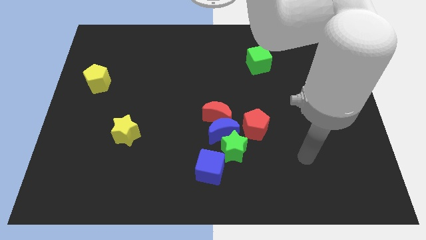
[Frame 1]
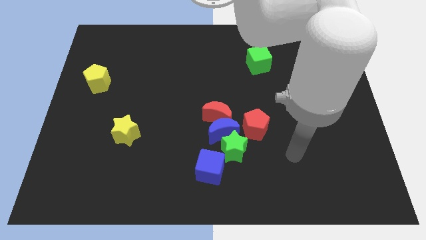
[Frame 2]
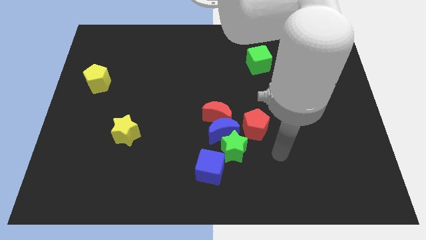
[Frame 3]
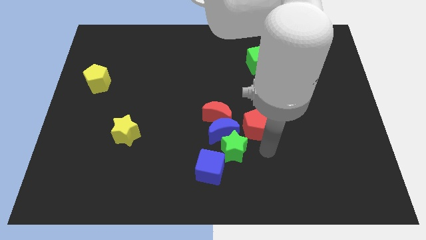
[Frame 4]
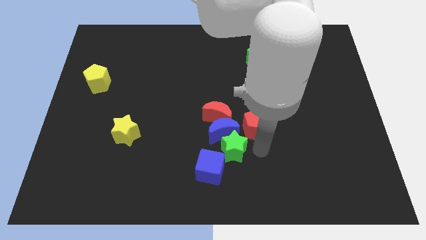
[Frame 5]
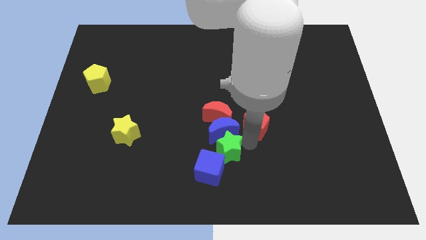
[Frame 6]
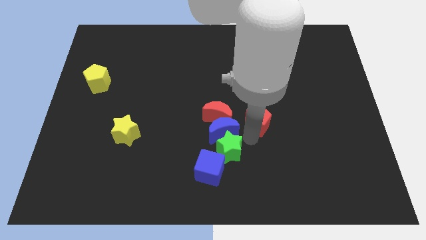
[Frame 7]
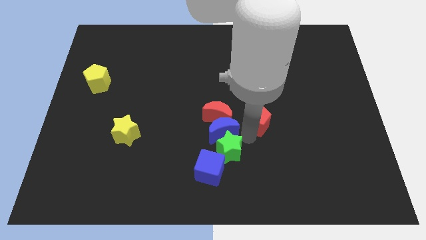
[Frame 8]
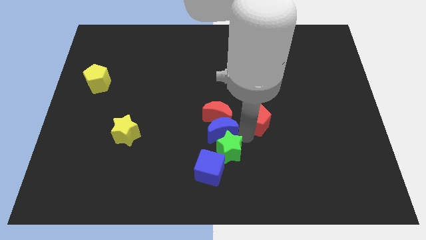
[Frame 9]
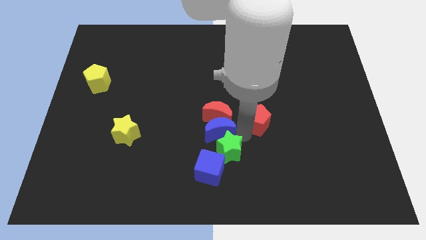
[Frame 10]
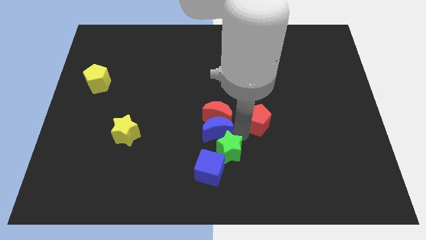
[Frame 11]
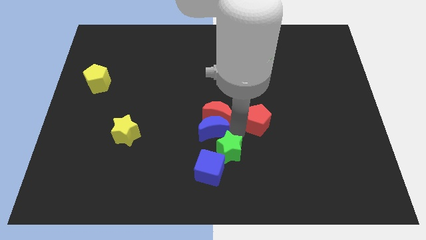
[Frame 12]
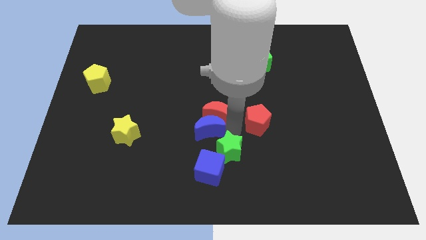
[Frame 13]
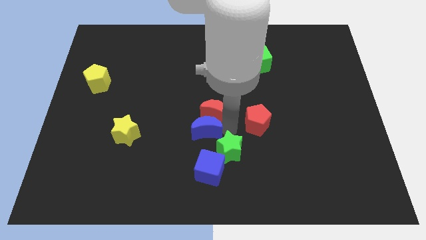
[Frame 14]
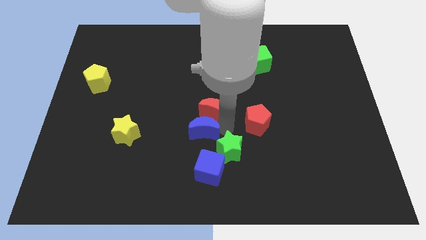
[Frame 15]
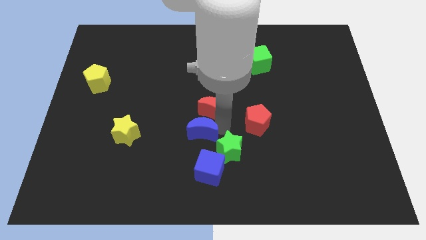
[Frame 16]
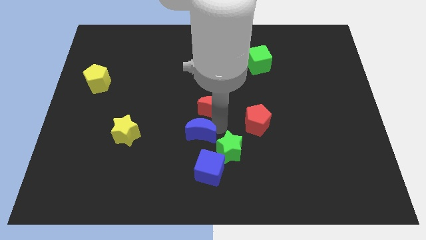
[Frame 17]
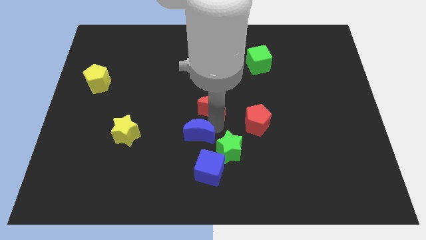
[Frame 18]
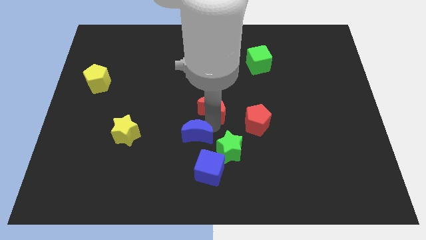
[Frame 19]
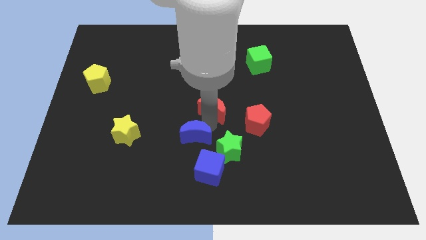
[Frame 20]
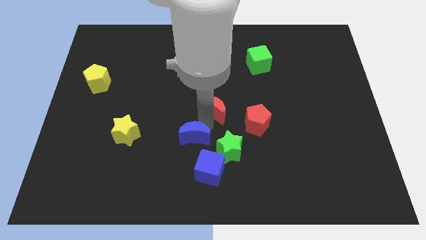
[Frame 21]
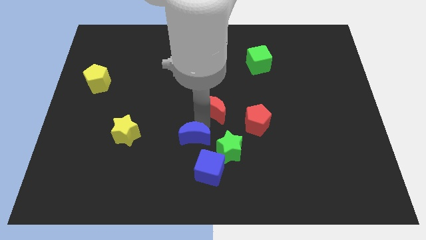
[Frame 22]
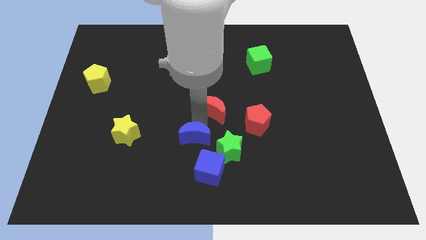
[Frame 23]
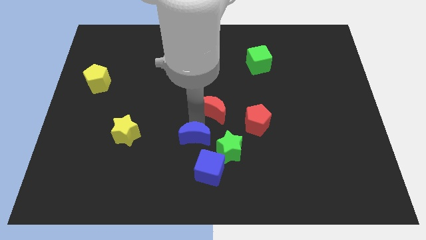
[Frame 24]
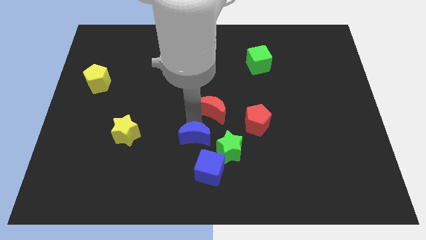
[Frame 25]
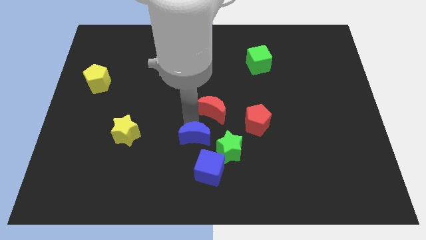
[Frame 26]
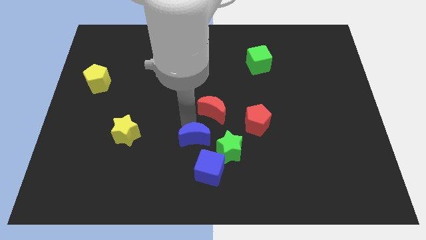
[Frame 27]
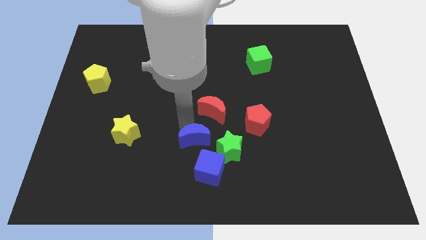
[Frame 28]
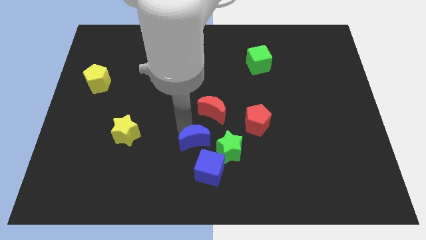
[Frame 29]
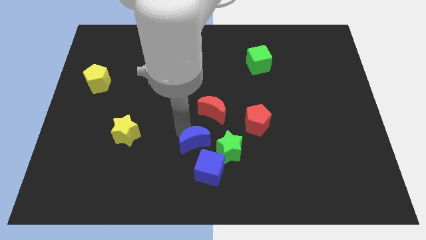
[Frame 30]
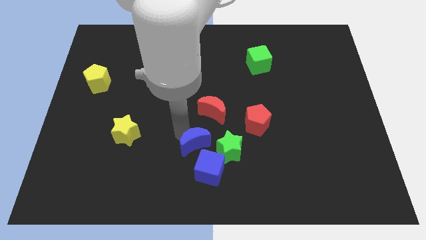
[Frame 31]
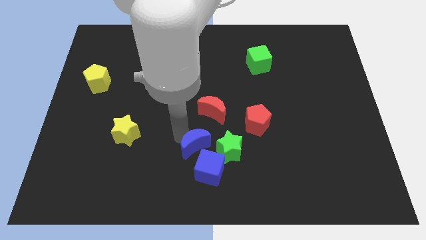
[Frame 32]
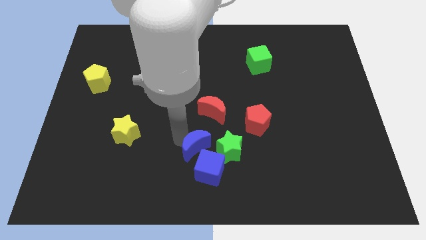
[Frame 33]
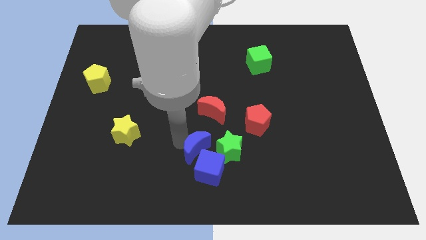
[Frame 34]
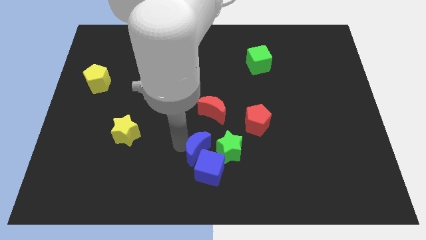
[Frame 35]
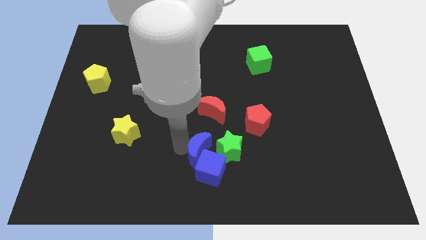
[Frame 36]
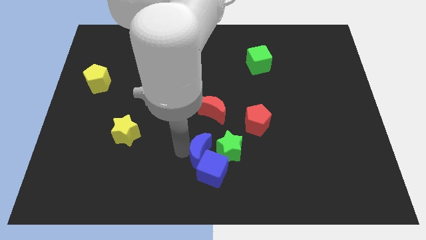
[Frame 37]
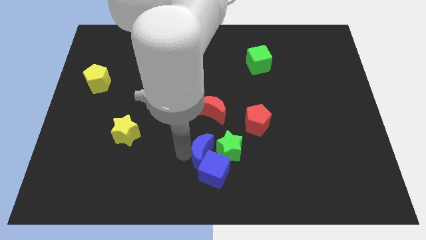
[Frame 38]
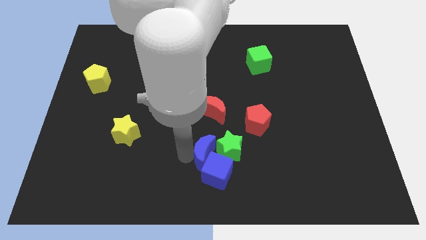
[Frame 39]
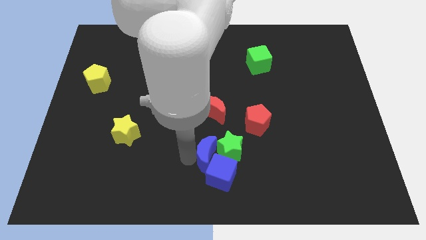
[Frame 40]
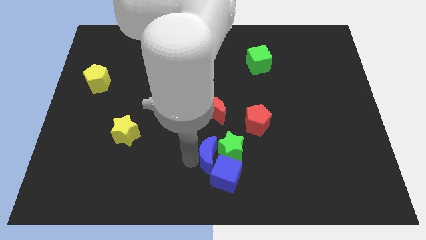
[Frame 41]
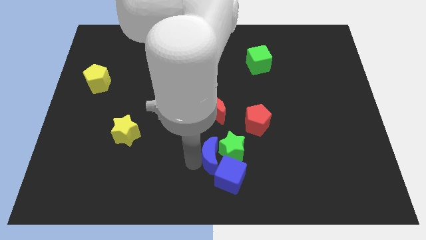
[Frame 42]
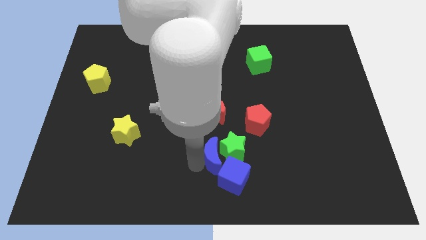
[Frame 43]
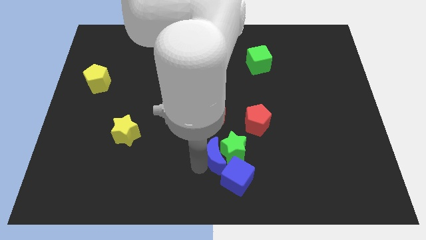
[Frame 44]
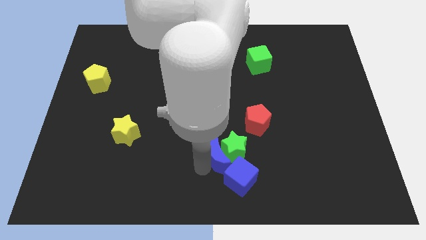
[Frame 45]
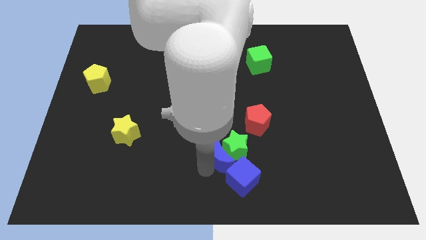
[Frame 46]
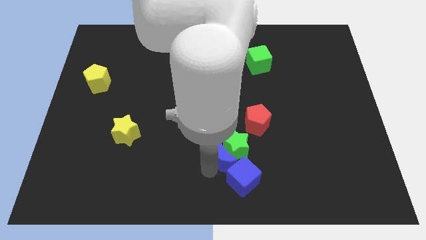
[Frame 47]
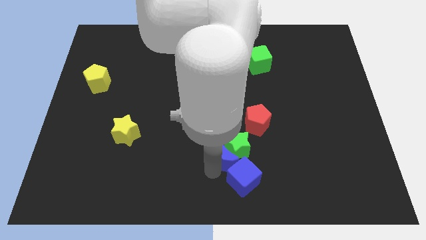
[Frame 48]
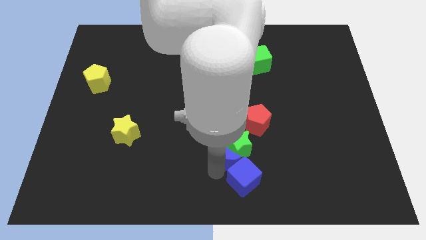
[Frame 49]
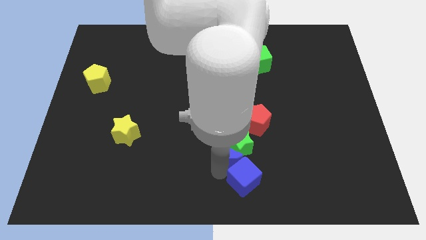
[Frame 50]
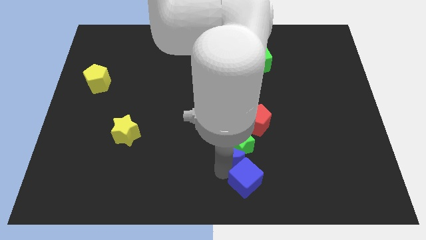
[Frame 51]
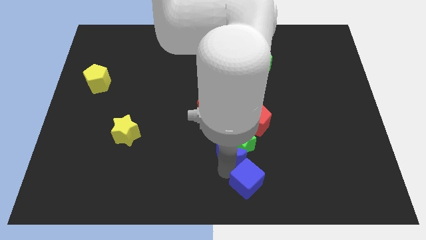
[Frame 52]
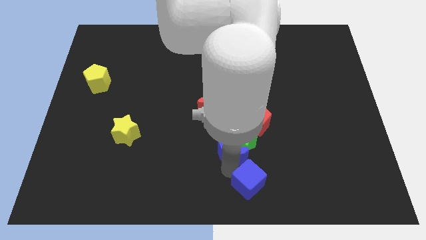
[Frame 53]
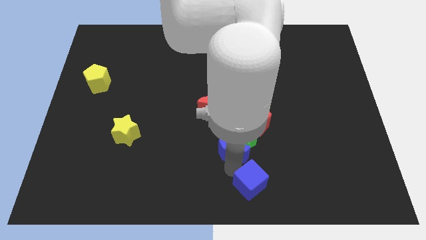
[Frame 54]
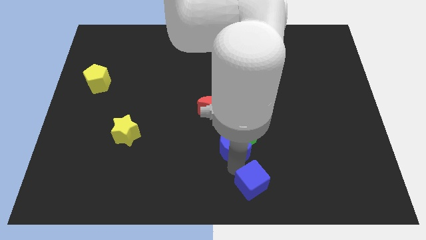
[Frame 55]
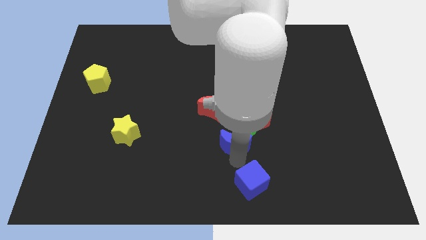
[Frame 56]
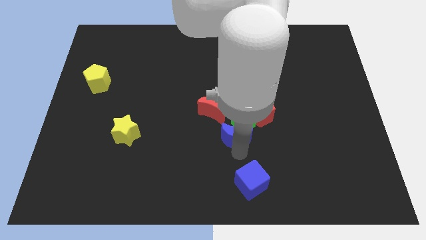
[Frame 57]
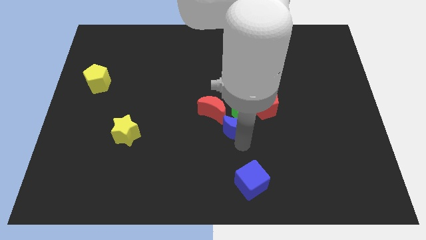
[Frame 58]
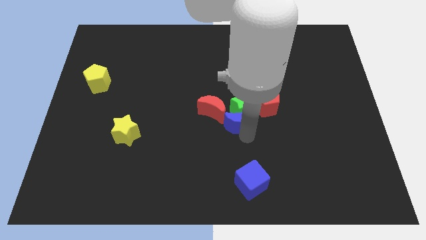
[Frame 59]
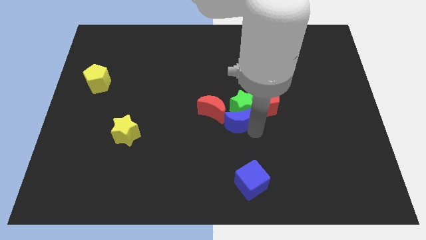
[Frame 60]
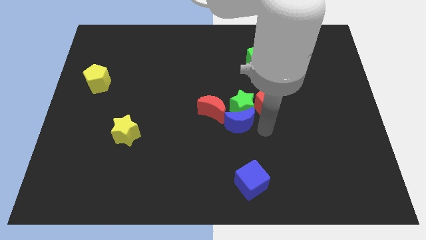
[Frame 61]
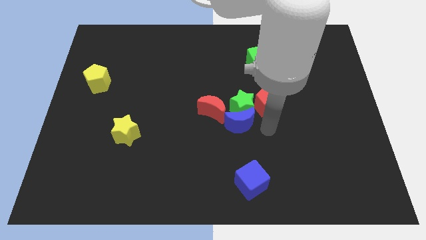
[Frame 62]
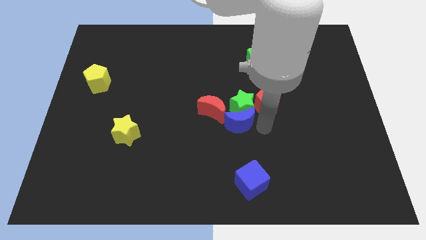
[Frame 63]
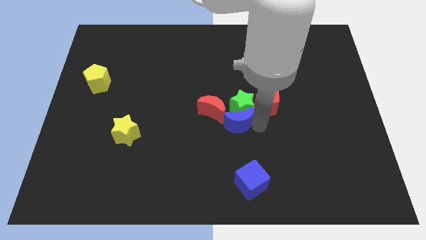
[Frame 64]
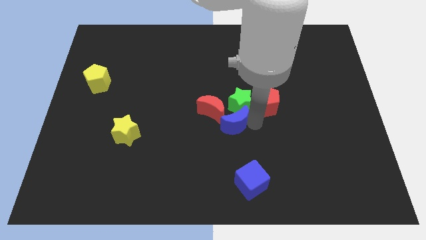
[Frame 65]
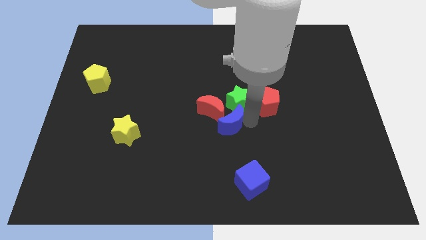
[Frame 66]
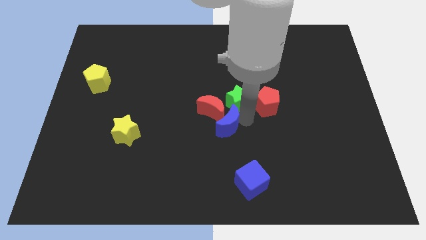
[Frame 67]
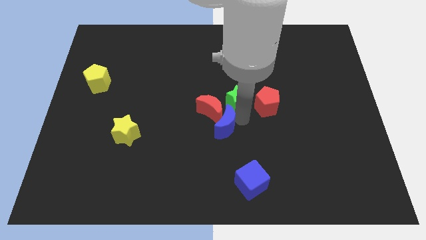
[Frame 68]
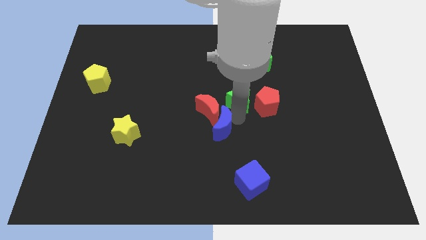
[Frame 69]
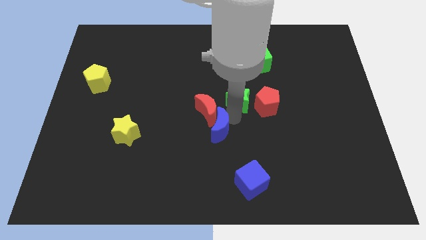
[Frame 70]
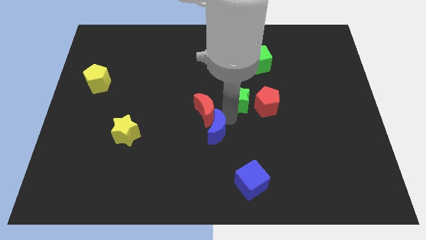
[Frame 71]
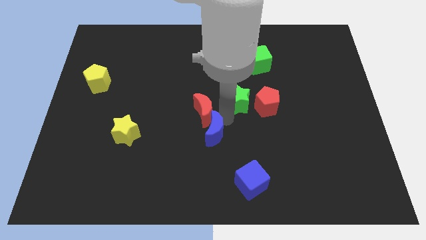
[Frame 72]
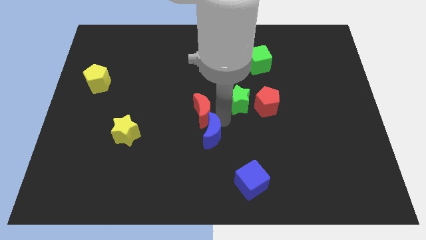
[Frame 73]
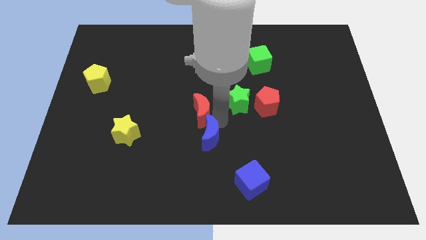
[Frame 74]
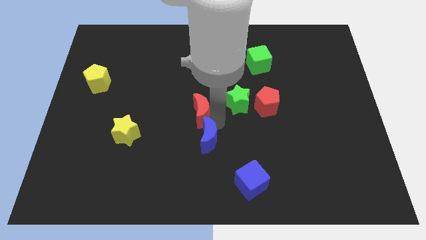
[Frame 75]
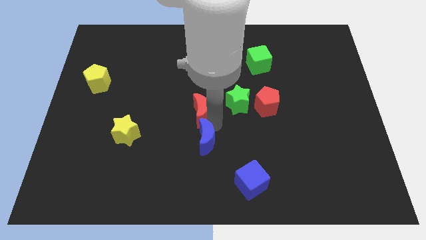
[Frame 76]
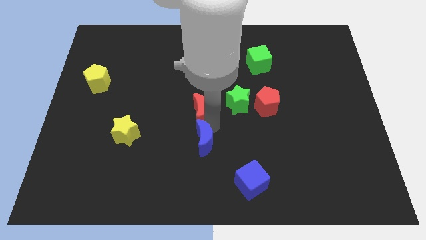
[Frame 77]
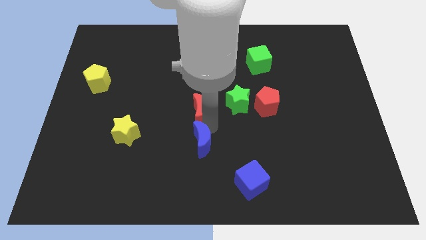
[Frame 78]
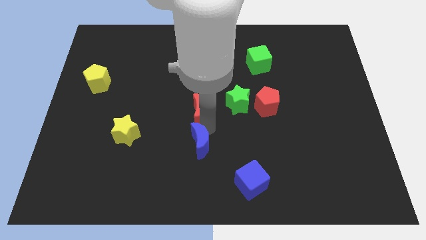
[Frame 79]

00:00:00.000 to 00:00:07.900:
move the blue moon away from the clump

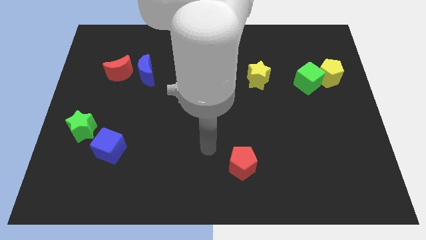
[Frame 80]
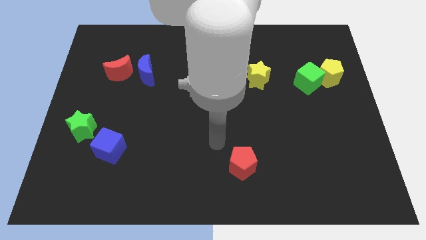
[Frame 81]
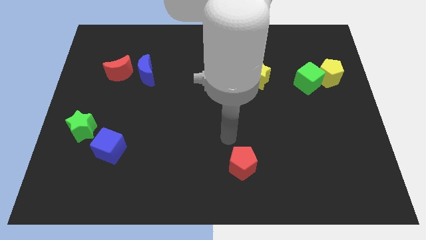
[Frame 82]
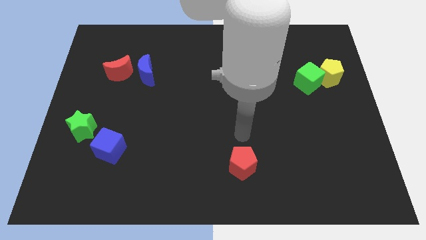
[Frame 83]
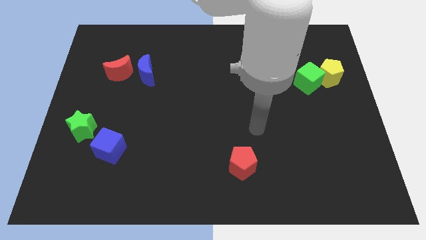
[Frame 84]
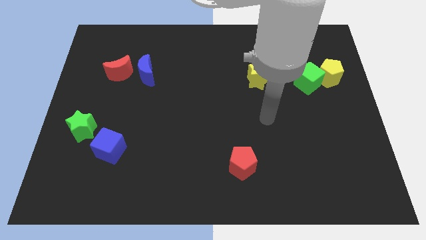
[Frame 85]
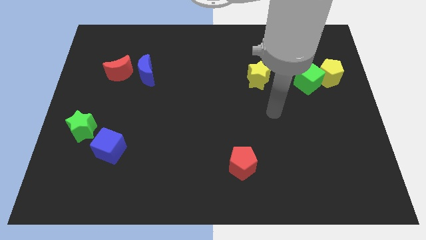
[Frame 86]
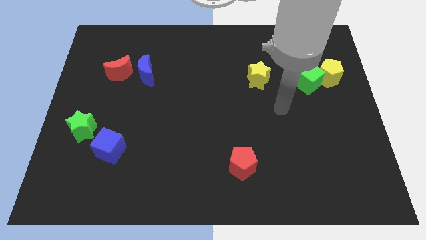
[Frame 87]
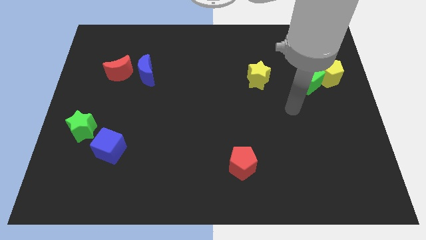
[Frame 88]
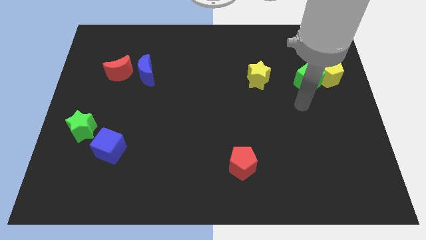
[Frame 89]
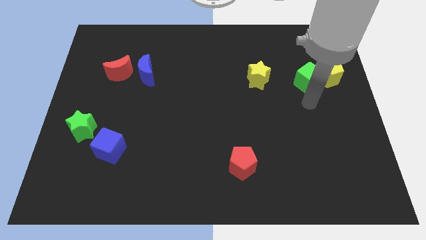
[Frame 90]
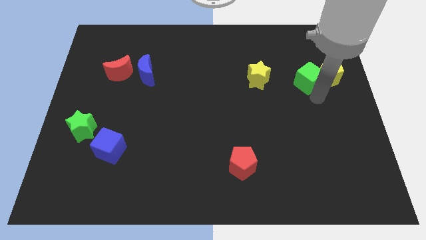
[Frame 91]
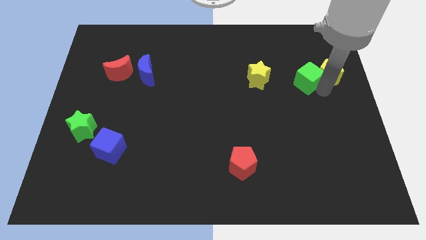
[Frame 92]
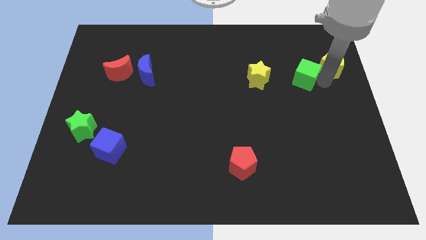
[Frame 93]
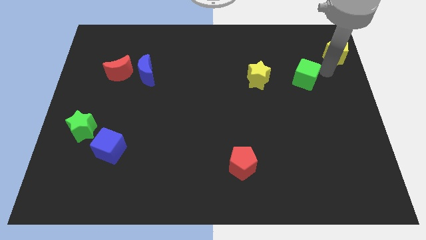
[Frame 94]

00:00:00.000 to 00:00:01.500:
pull the green cube apart from the yellow pentagon
